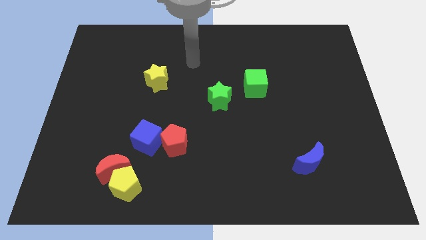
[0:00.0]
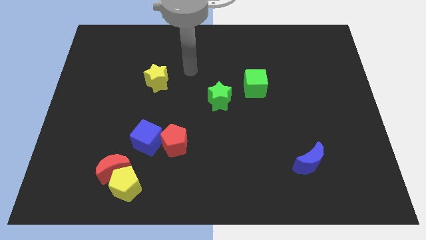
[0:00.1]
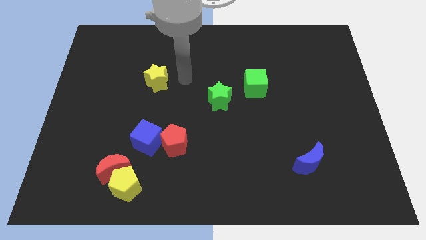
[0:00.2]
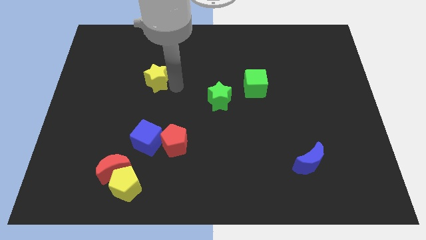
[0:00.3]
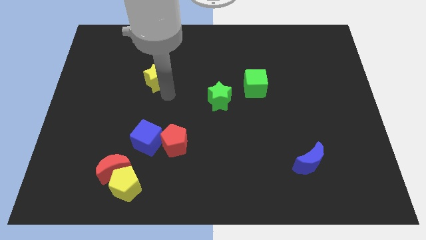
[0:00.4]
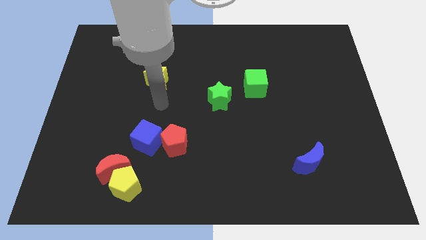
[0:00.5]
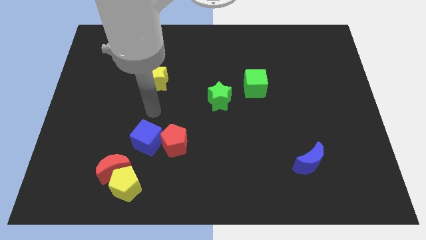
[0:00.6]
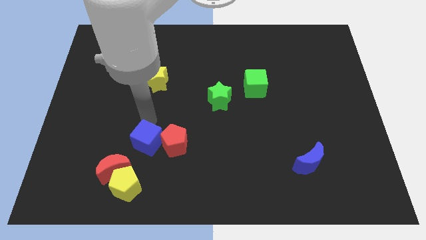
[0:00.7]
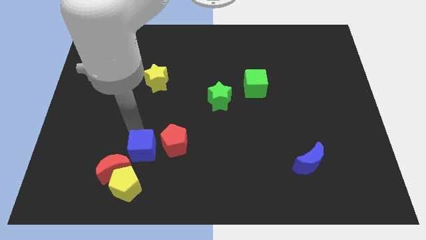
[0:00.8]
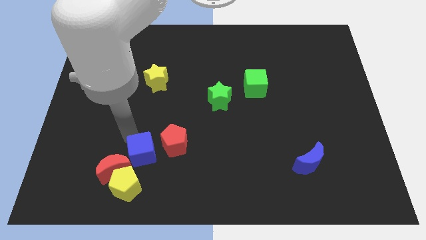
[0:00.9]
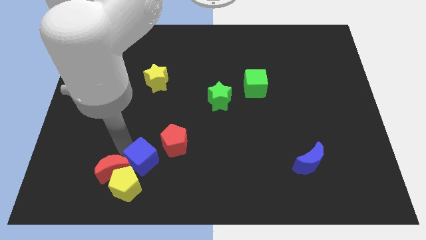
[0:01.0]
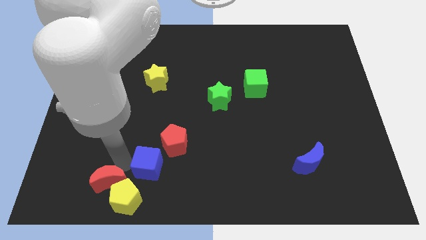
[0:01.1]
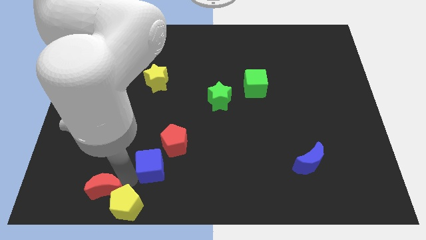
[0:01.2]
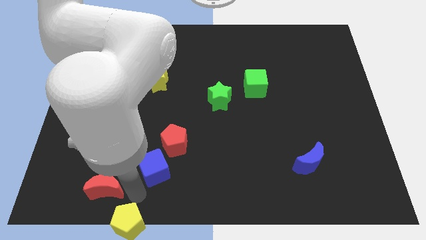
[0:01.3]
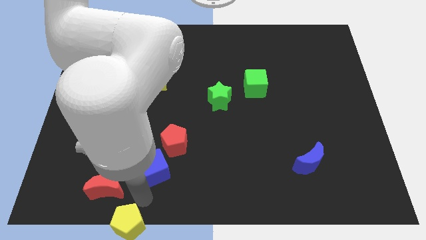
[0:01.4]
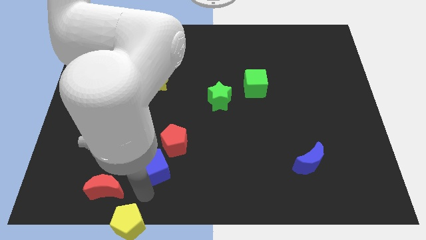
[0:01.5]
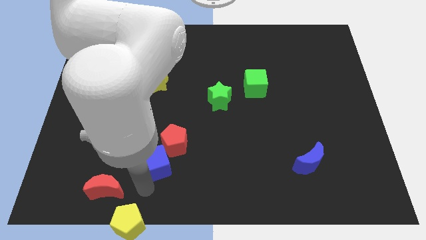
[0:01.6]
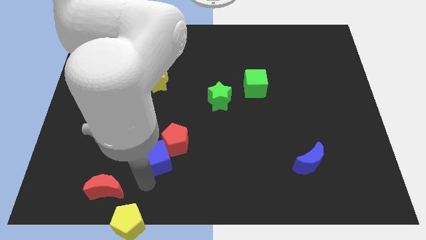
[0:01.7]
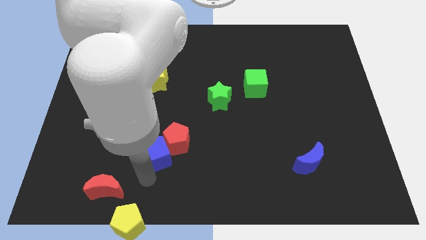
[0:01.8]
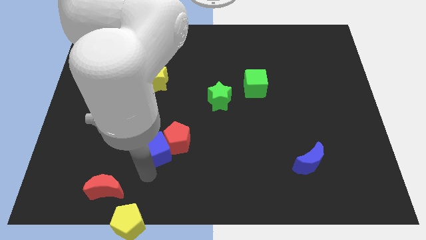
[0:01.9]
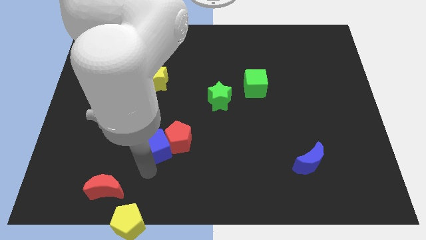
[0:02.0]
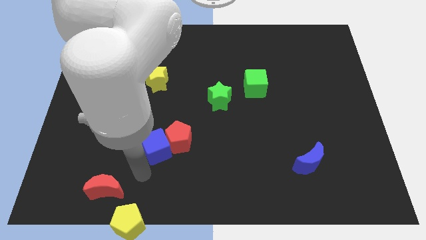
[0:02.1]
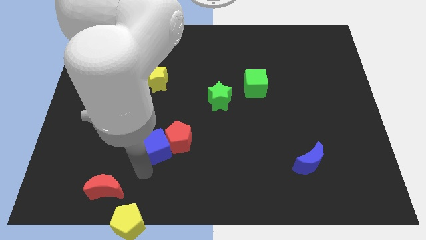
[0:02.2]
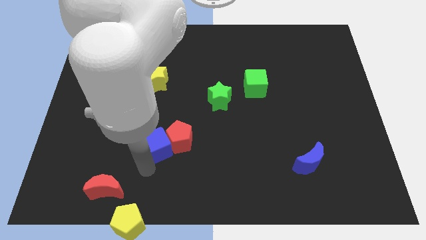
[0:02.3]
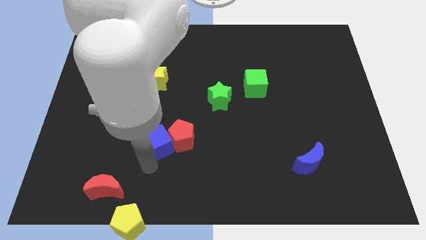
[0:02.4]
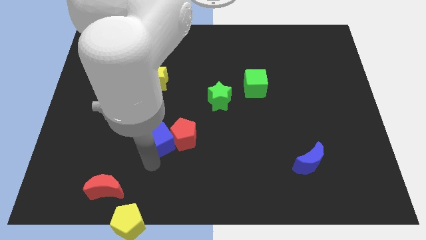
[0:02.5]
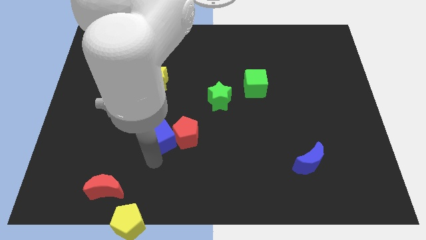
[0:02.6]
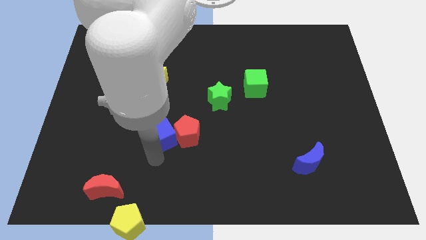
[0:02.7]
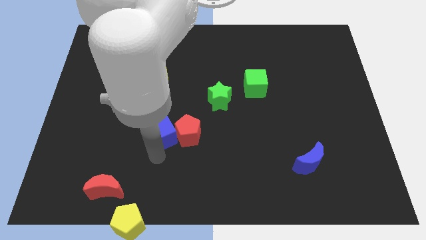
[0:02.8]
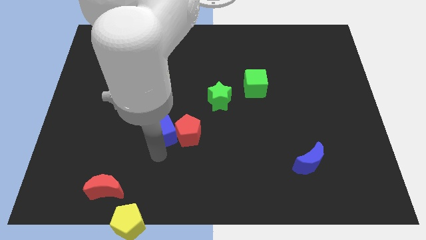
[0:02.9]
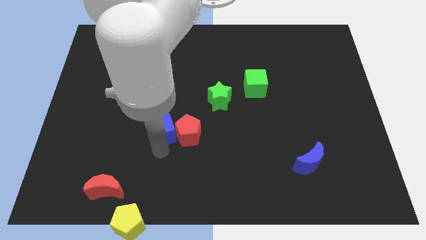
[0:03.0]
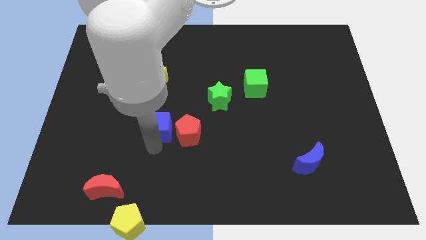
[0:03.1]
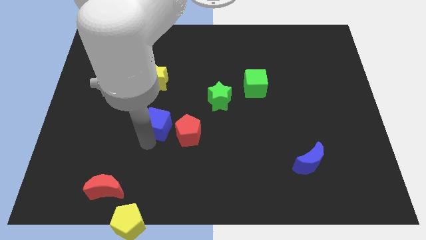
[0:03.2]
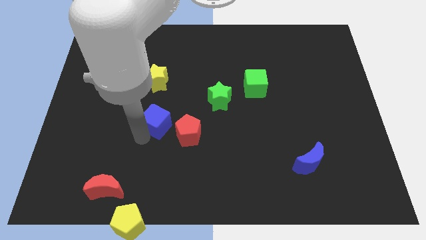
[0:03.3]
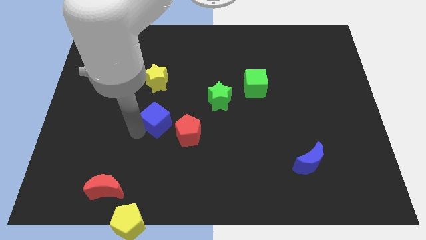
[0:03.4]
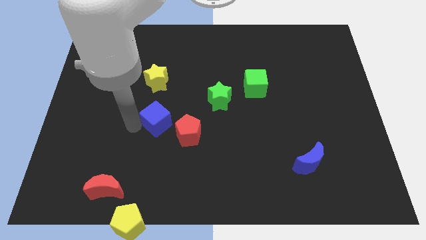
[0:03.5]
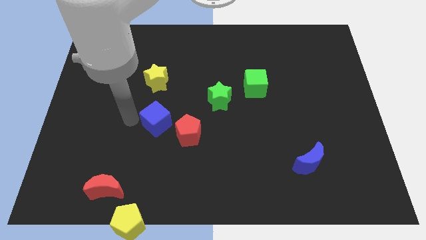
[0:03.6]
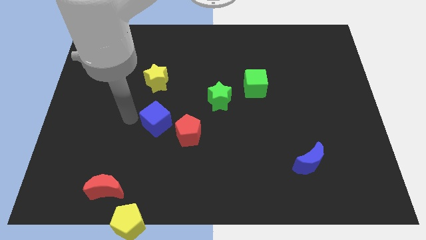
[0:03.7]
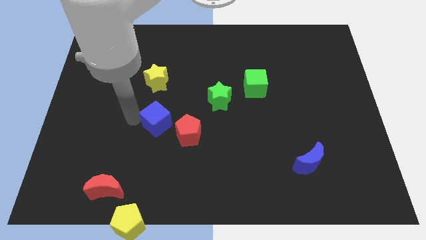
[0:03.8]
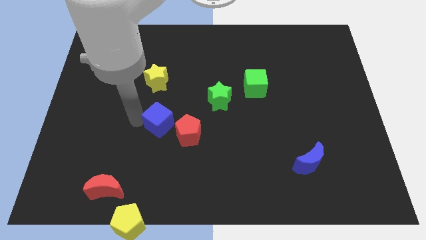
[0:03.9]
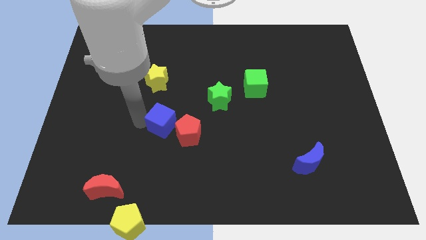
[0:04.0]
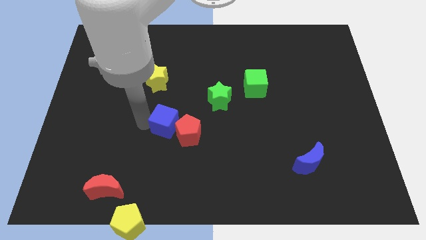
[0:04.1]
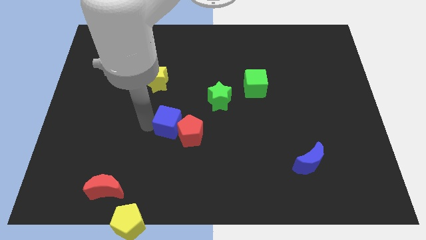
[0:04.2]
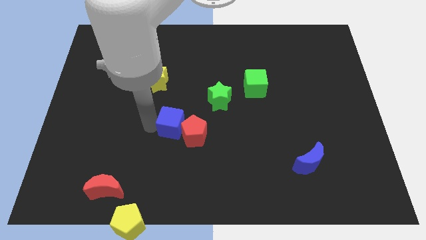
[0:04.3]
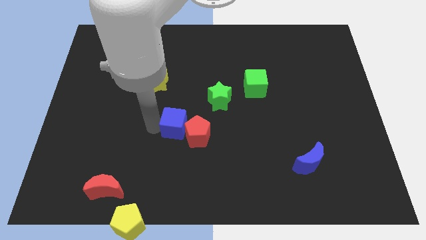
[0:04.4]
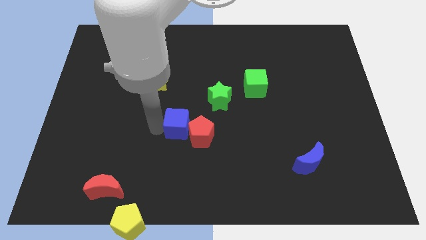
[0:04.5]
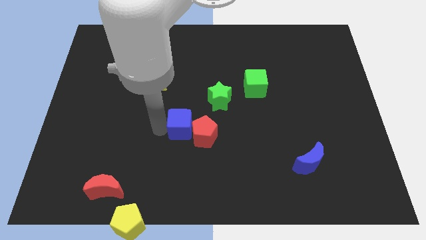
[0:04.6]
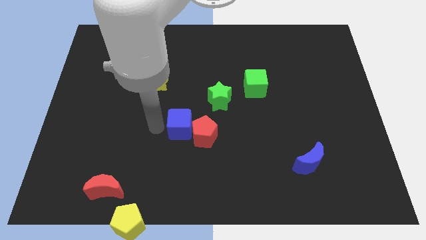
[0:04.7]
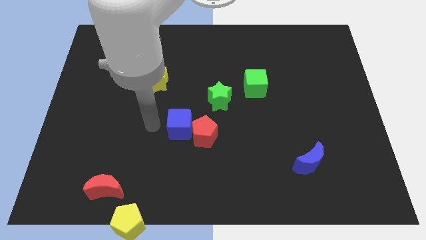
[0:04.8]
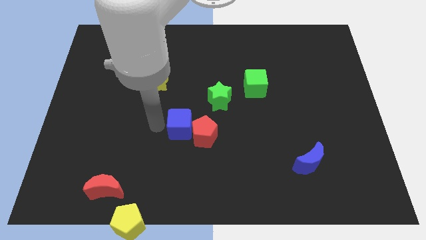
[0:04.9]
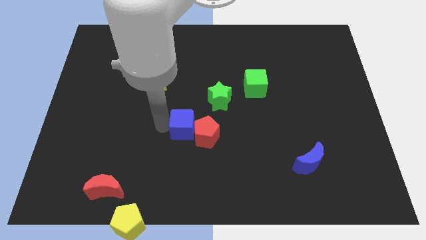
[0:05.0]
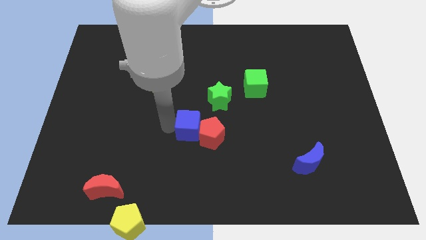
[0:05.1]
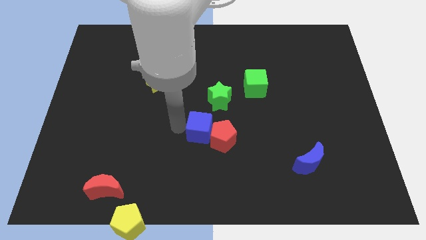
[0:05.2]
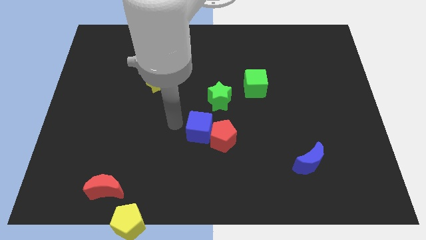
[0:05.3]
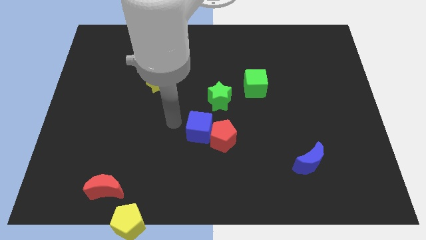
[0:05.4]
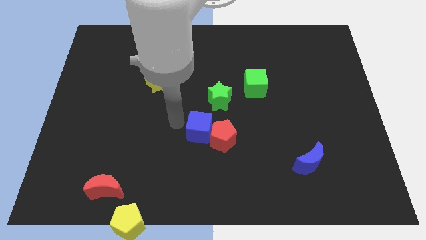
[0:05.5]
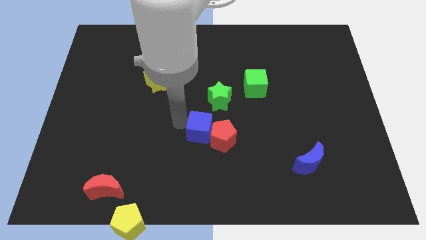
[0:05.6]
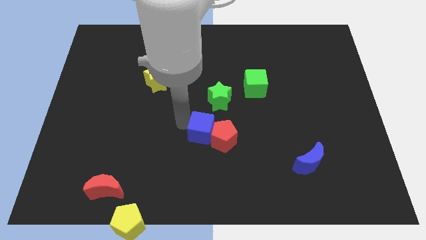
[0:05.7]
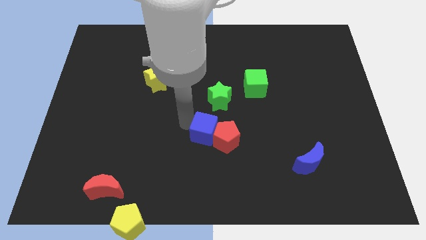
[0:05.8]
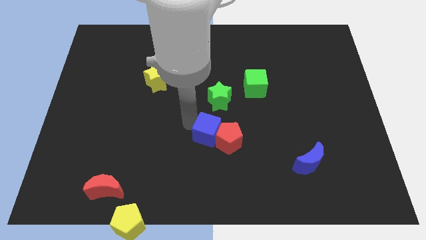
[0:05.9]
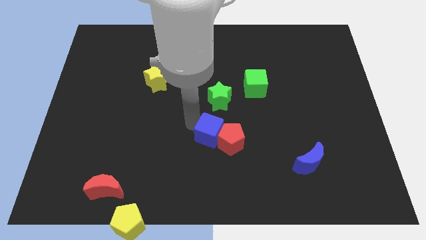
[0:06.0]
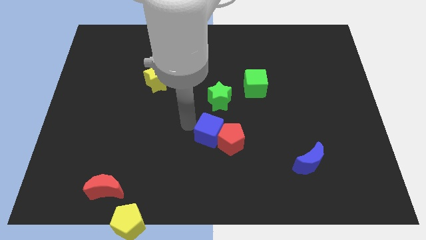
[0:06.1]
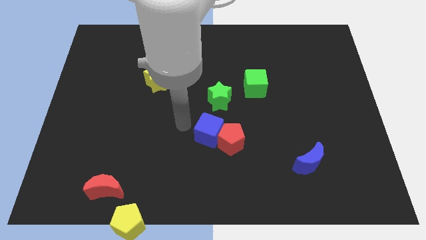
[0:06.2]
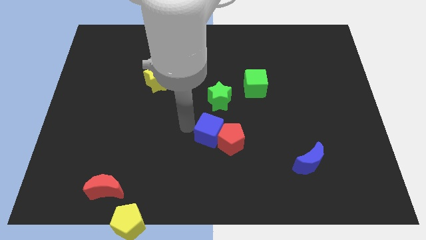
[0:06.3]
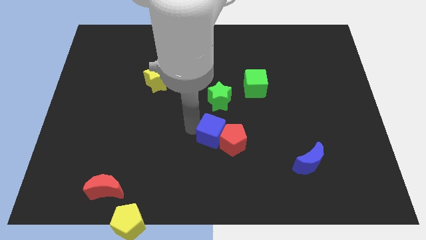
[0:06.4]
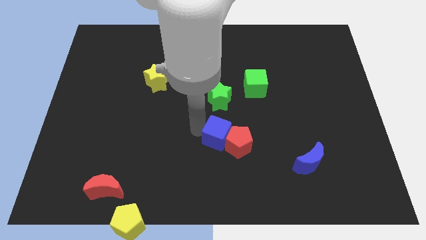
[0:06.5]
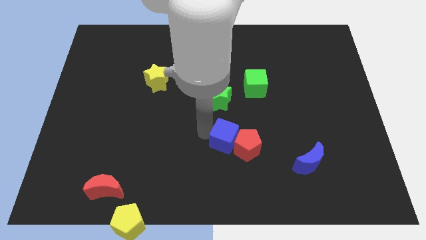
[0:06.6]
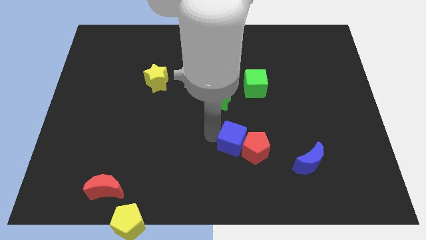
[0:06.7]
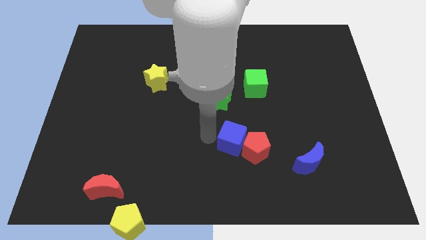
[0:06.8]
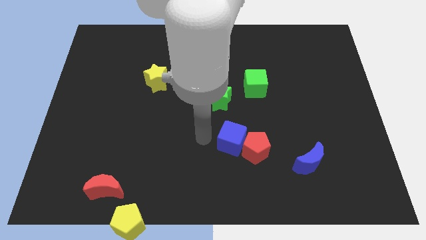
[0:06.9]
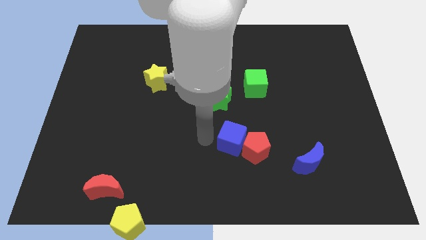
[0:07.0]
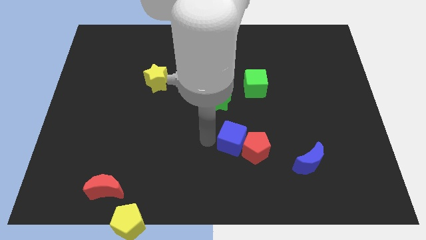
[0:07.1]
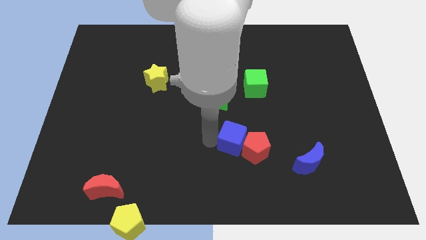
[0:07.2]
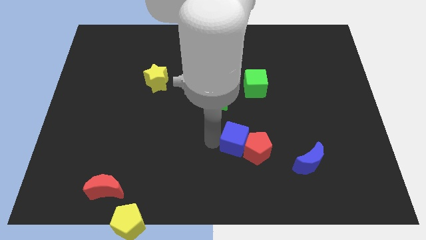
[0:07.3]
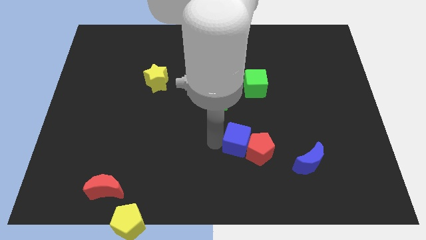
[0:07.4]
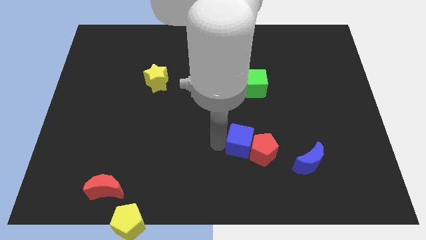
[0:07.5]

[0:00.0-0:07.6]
move the blue cube to the right
